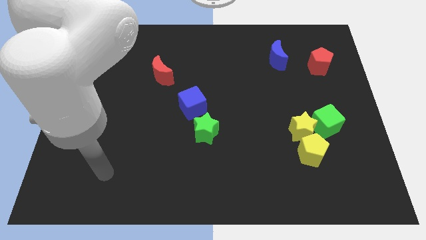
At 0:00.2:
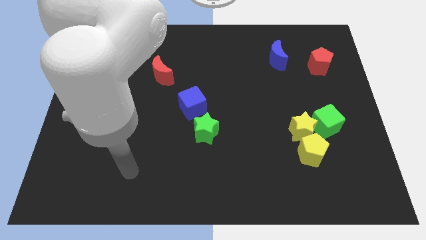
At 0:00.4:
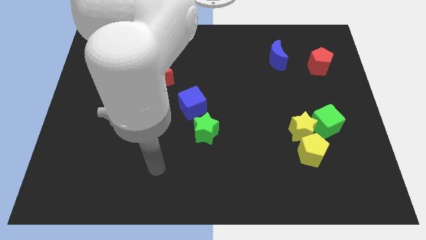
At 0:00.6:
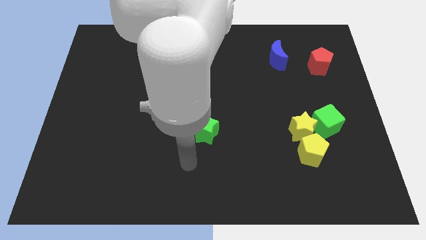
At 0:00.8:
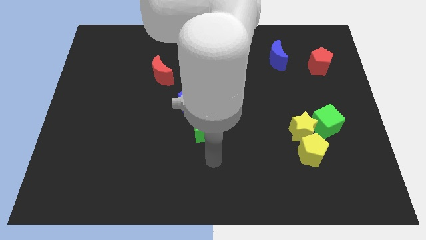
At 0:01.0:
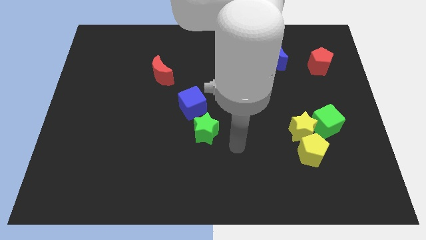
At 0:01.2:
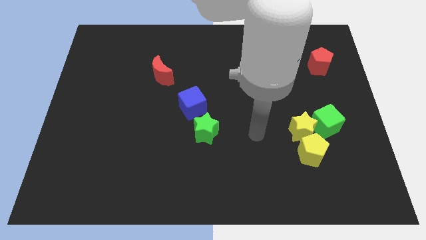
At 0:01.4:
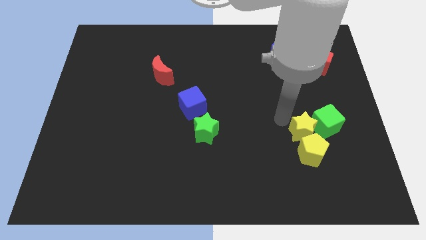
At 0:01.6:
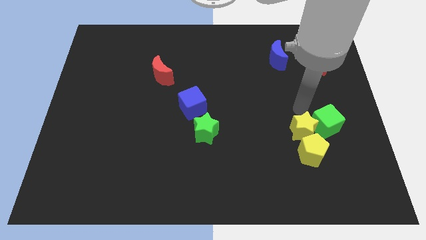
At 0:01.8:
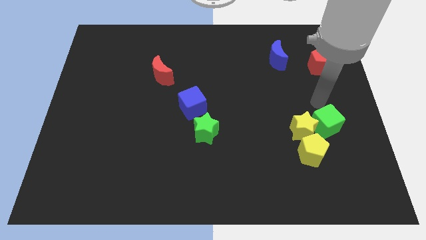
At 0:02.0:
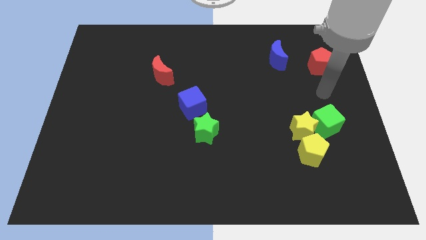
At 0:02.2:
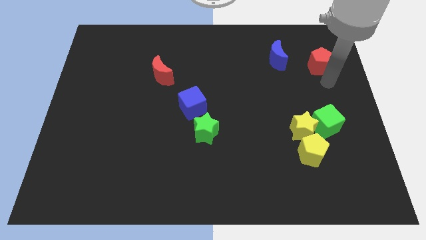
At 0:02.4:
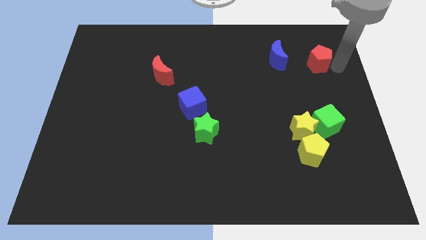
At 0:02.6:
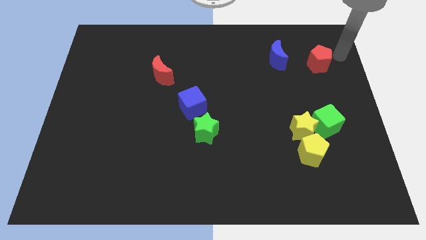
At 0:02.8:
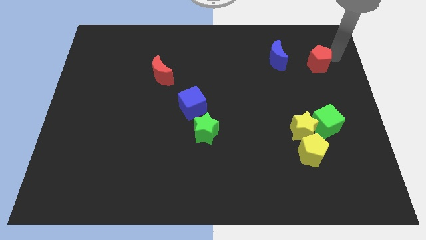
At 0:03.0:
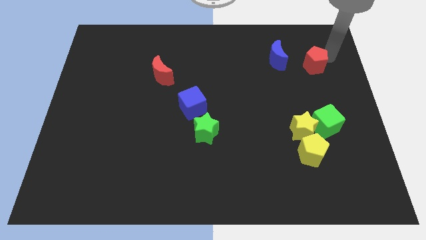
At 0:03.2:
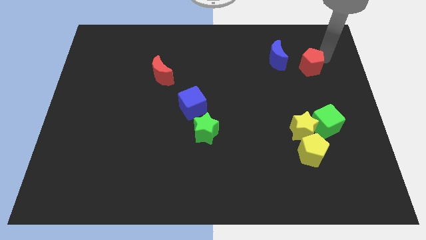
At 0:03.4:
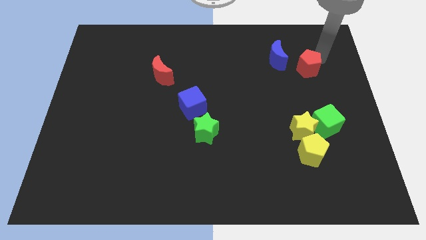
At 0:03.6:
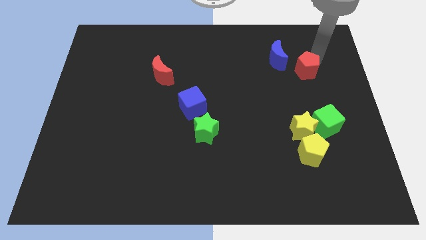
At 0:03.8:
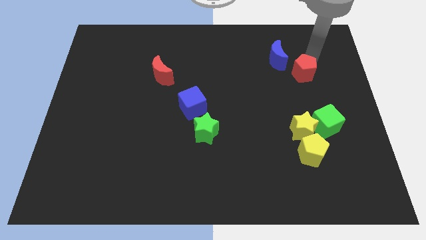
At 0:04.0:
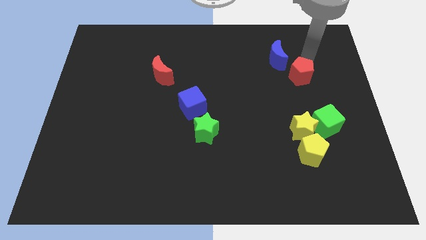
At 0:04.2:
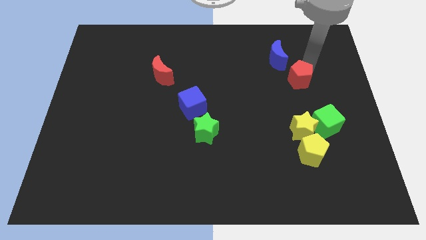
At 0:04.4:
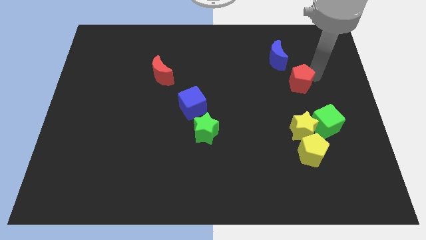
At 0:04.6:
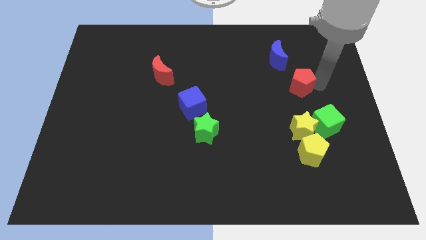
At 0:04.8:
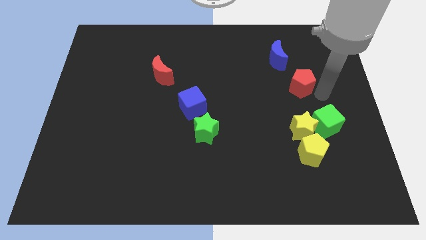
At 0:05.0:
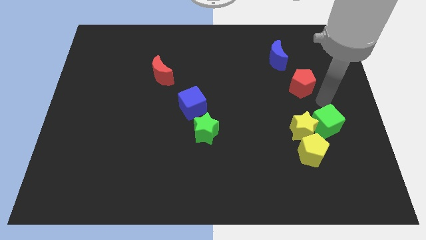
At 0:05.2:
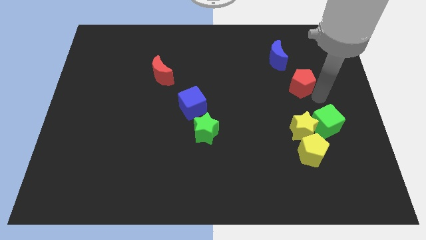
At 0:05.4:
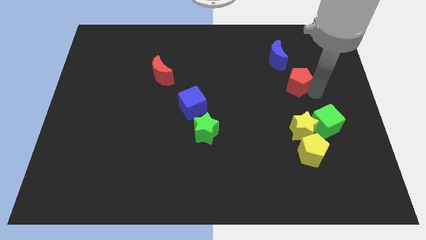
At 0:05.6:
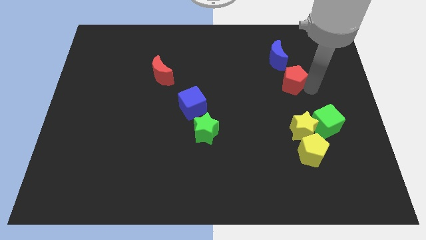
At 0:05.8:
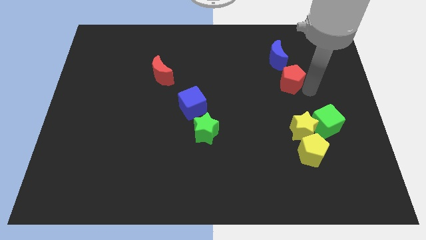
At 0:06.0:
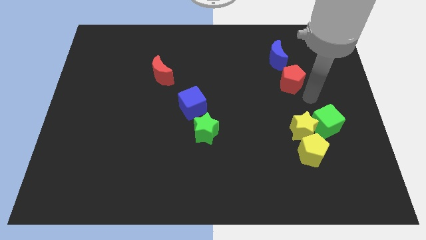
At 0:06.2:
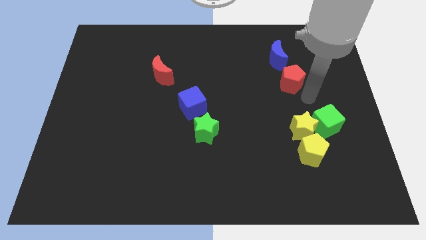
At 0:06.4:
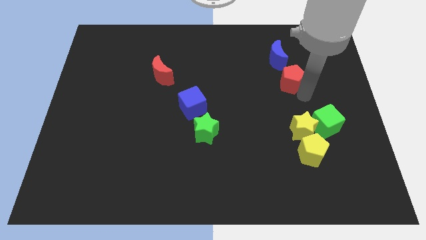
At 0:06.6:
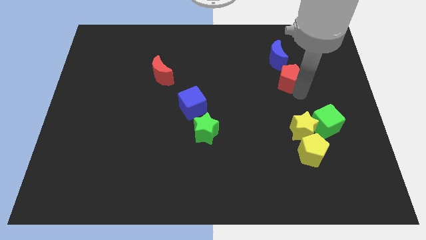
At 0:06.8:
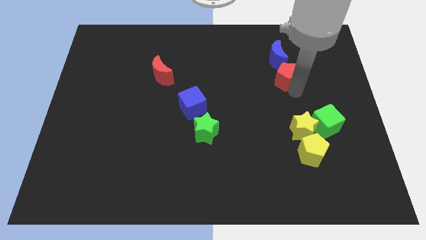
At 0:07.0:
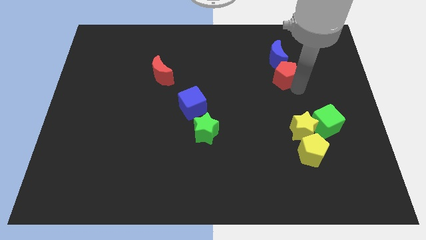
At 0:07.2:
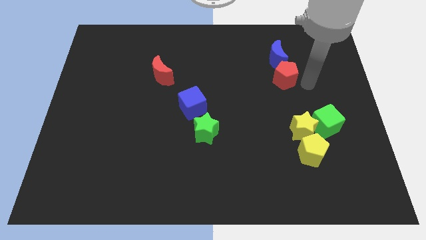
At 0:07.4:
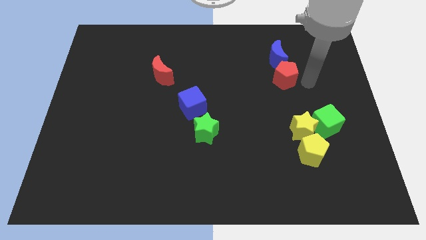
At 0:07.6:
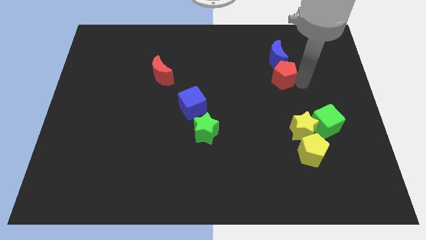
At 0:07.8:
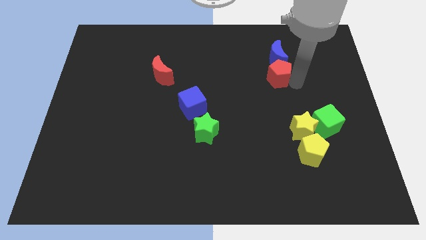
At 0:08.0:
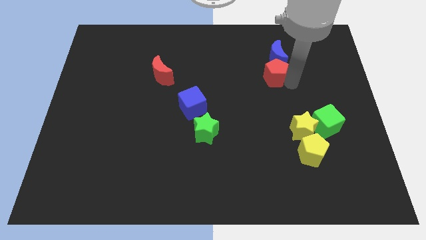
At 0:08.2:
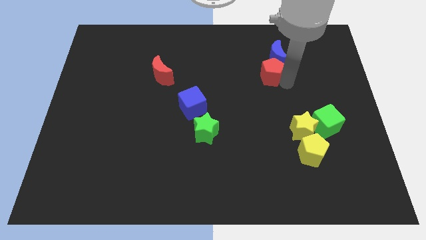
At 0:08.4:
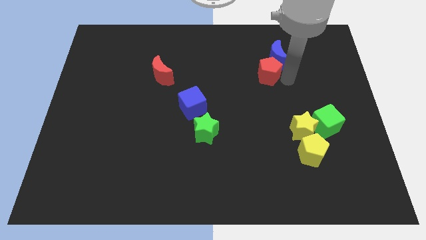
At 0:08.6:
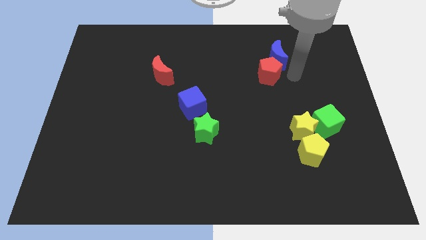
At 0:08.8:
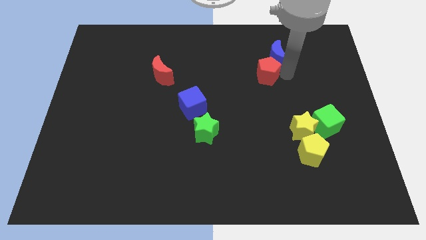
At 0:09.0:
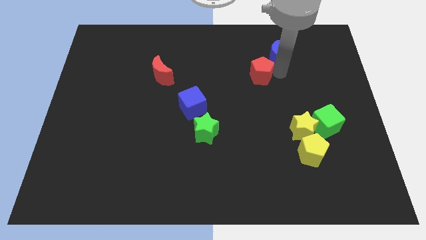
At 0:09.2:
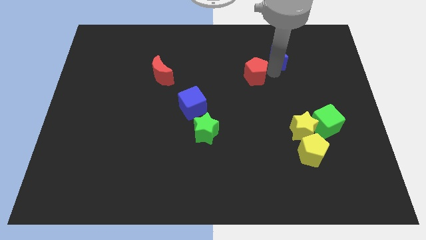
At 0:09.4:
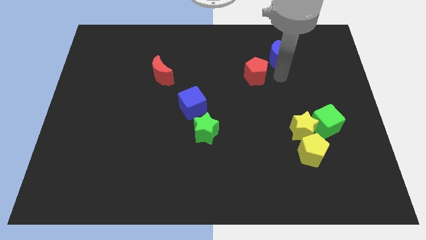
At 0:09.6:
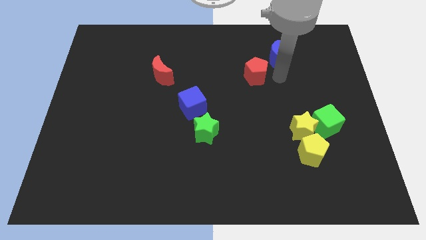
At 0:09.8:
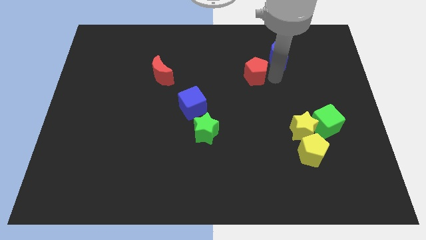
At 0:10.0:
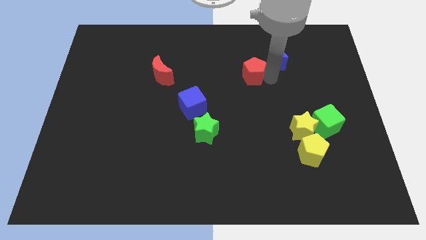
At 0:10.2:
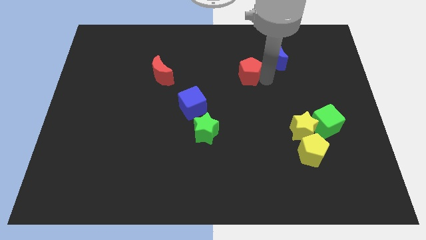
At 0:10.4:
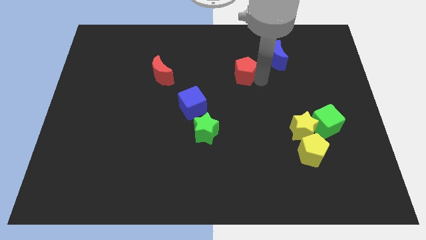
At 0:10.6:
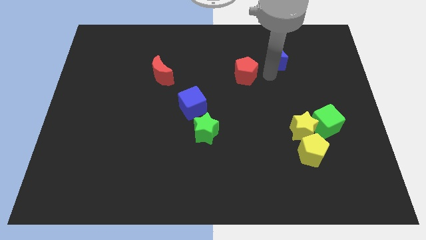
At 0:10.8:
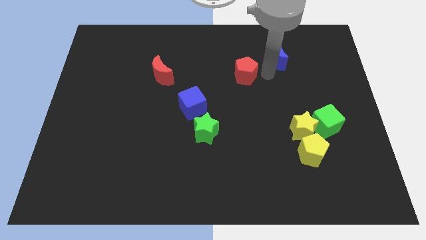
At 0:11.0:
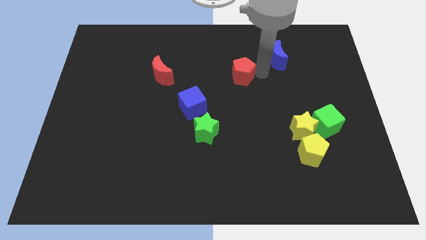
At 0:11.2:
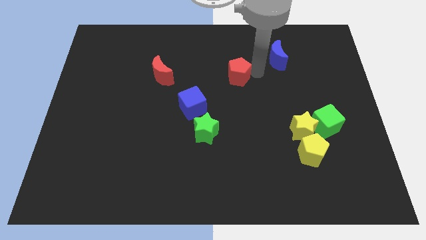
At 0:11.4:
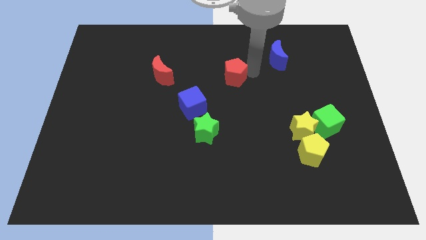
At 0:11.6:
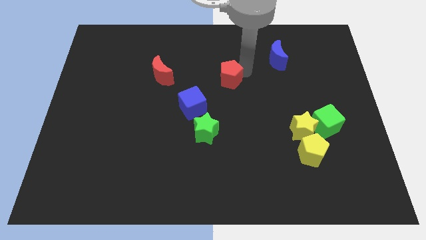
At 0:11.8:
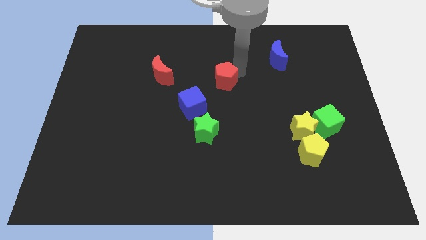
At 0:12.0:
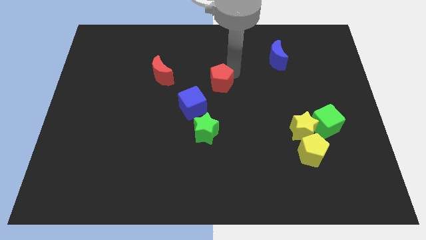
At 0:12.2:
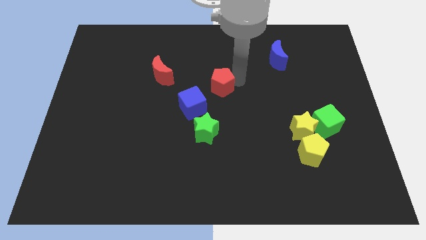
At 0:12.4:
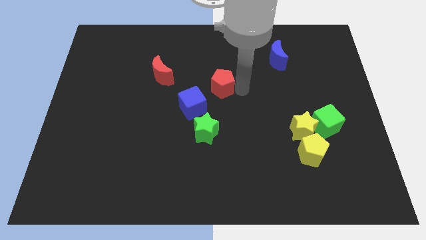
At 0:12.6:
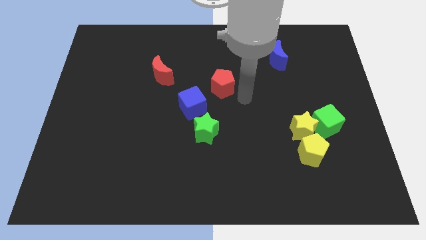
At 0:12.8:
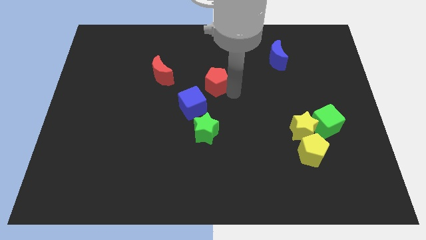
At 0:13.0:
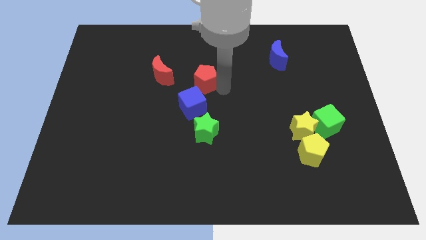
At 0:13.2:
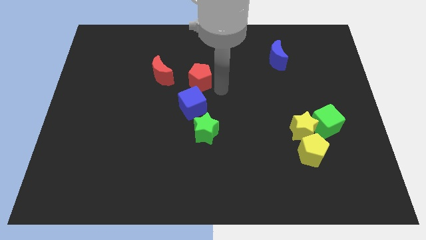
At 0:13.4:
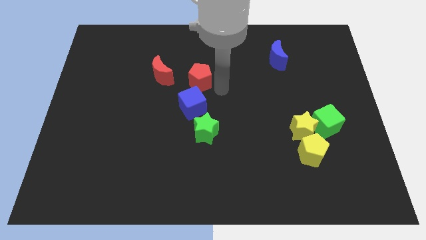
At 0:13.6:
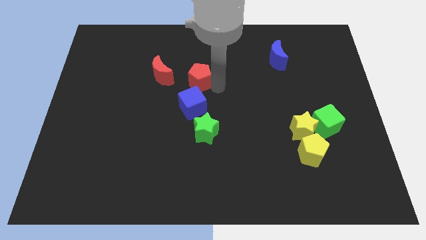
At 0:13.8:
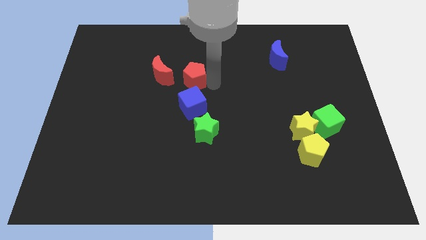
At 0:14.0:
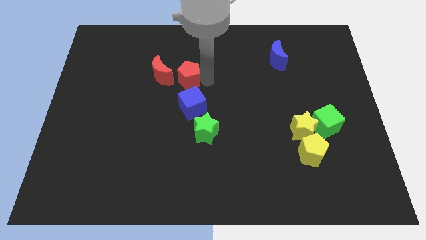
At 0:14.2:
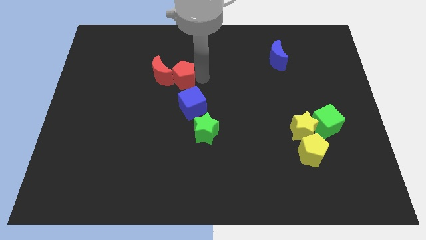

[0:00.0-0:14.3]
put the red pentagon next to the red moon
